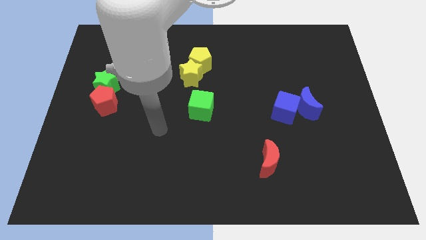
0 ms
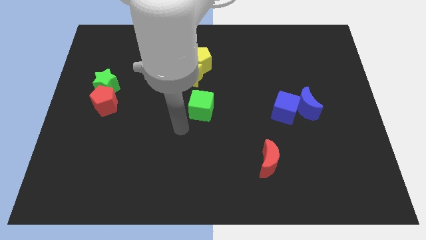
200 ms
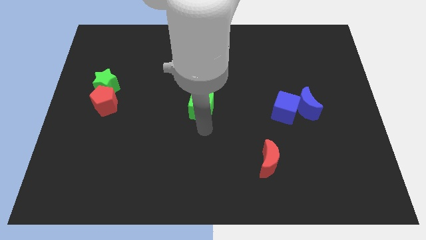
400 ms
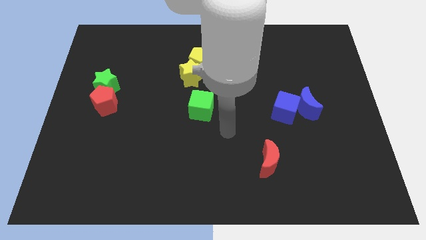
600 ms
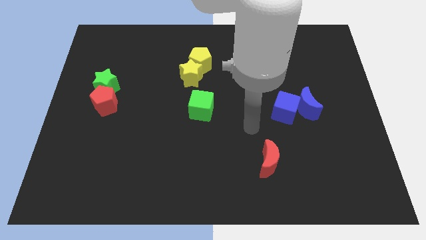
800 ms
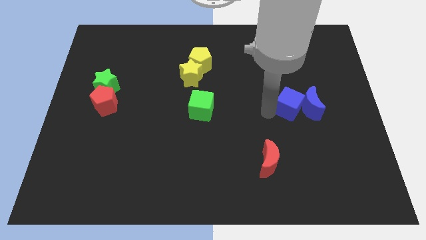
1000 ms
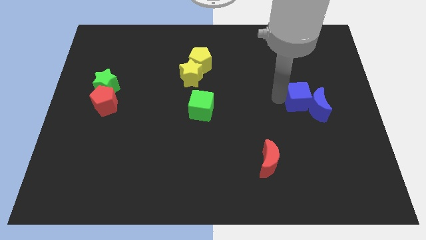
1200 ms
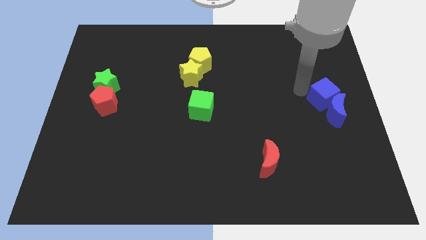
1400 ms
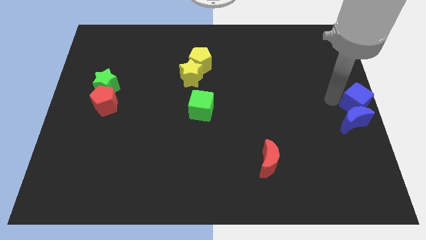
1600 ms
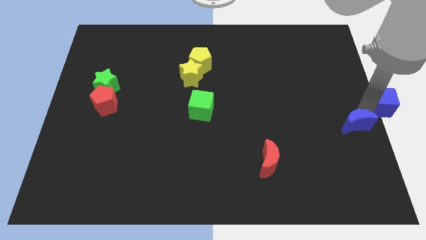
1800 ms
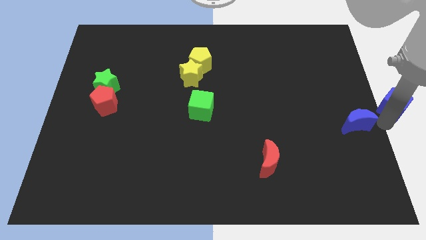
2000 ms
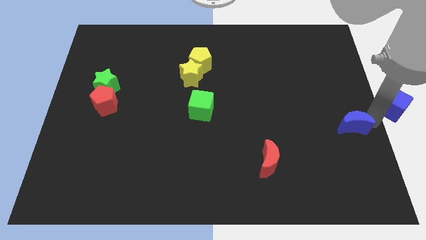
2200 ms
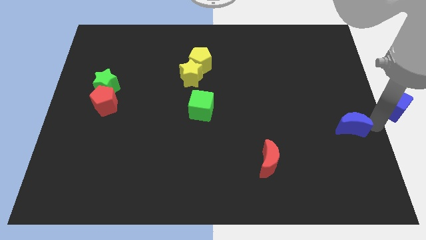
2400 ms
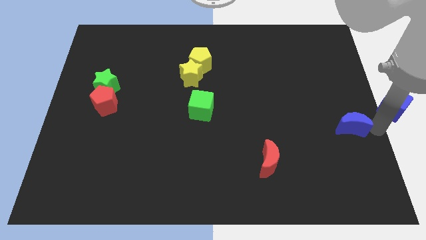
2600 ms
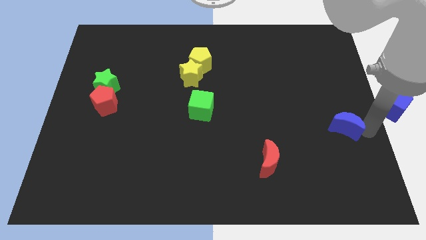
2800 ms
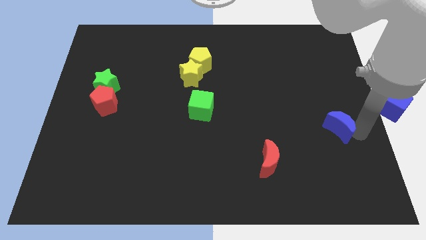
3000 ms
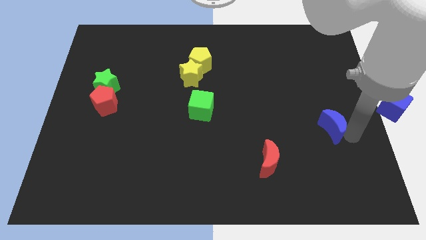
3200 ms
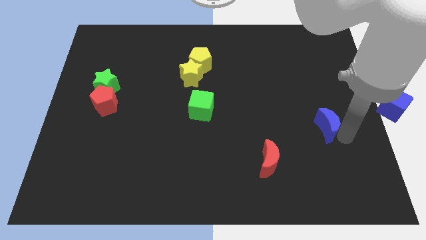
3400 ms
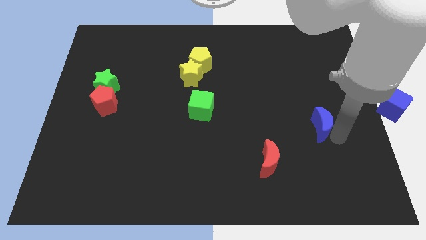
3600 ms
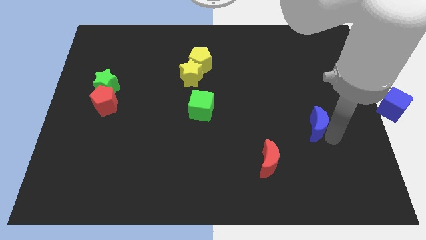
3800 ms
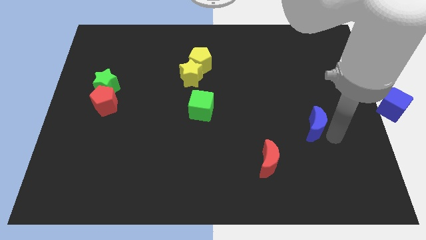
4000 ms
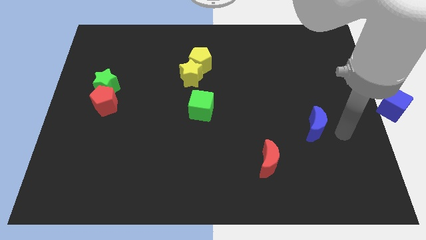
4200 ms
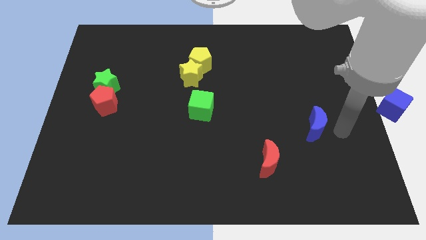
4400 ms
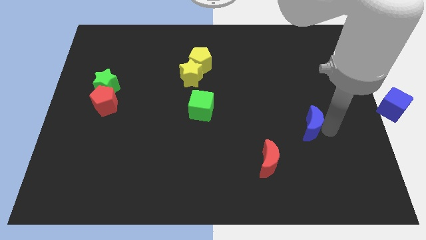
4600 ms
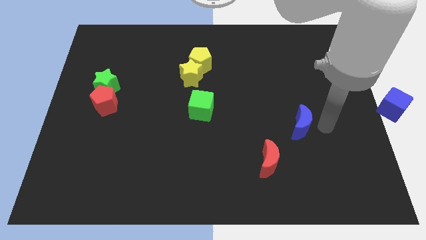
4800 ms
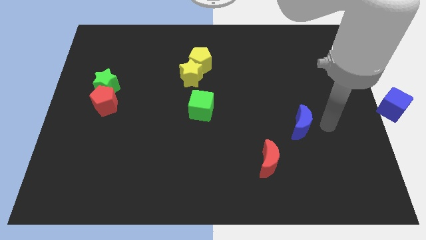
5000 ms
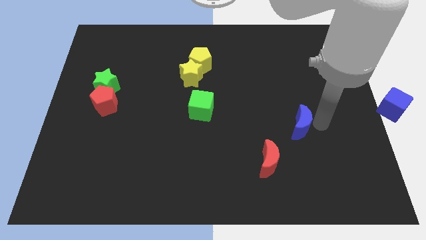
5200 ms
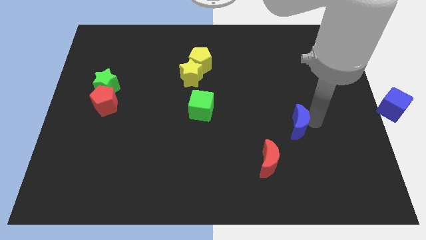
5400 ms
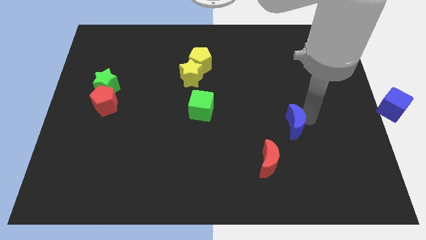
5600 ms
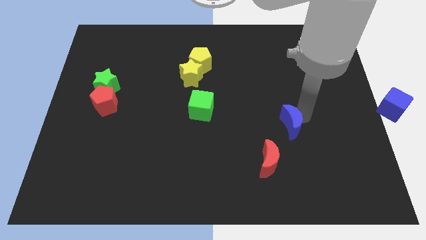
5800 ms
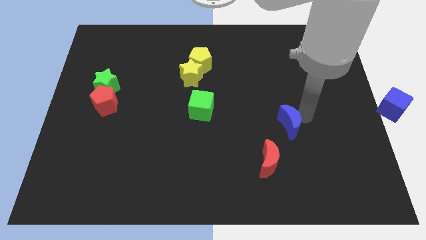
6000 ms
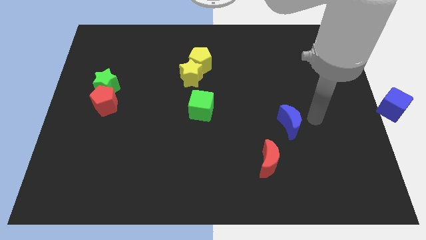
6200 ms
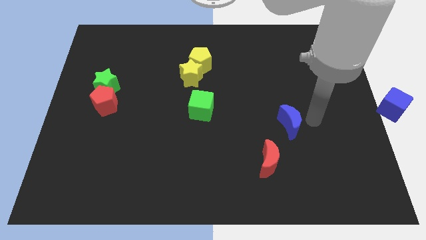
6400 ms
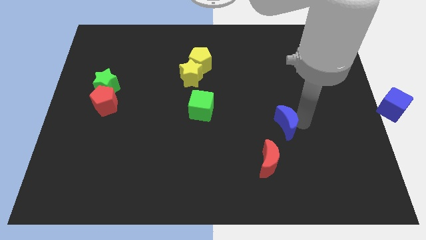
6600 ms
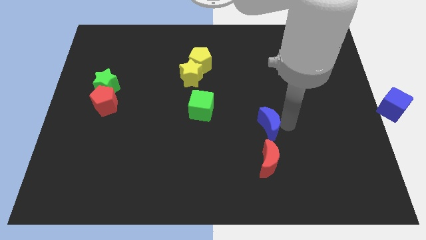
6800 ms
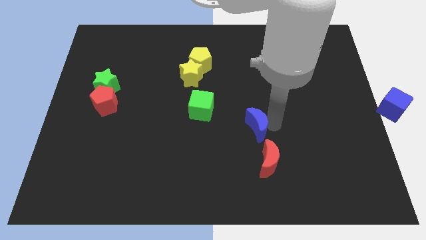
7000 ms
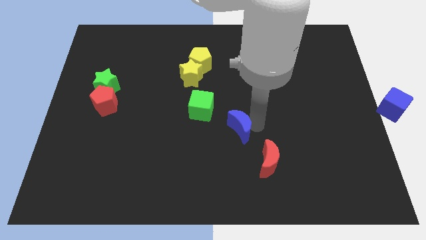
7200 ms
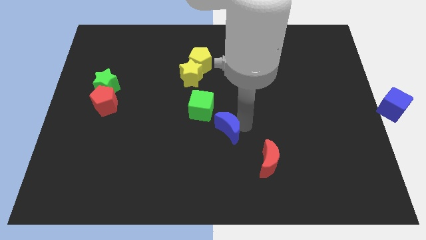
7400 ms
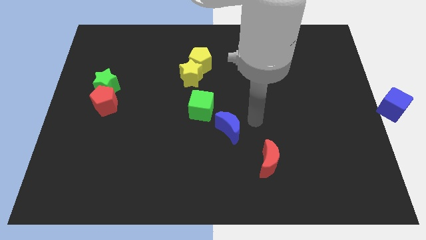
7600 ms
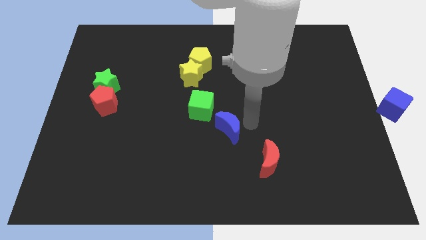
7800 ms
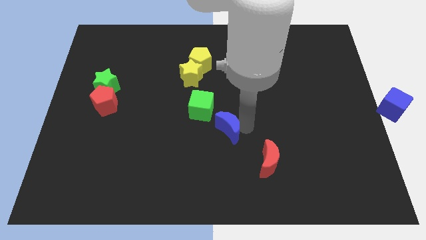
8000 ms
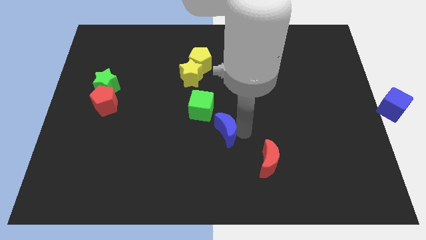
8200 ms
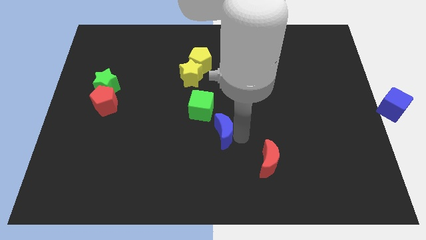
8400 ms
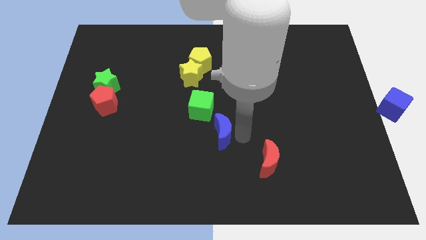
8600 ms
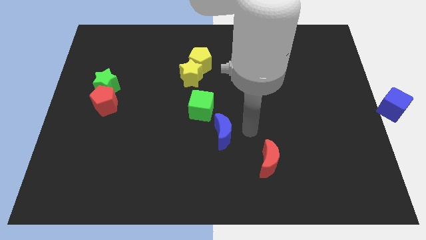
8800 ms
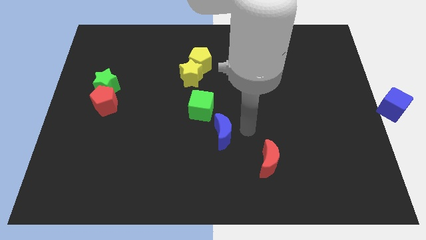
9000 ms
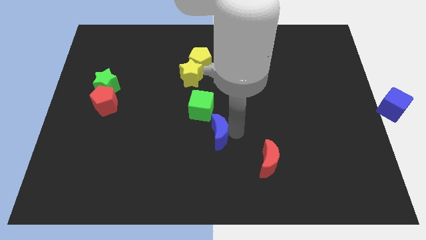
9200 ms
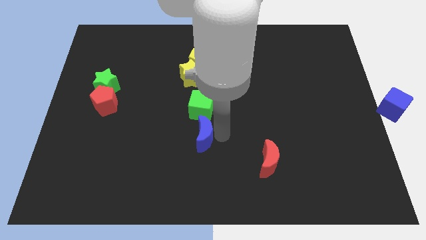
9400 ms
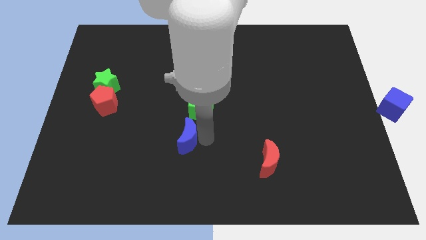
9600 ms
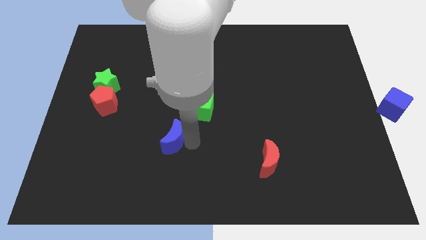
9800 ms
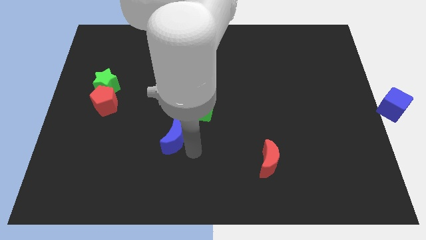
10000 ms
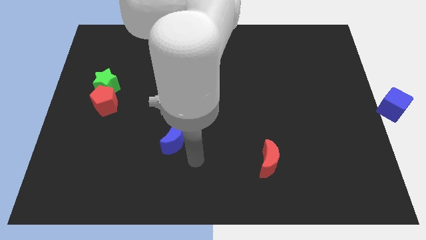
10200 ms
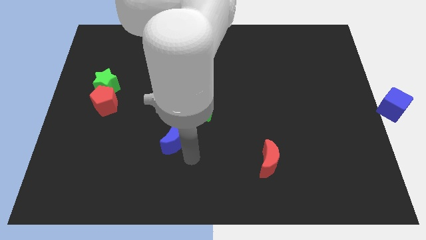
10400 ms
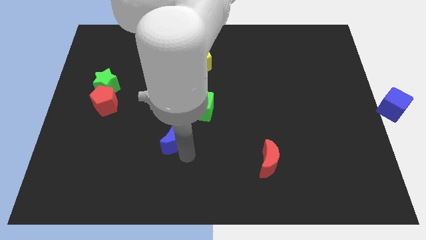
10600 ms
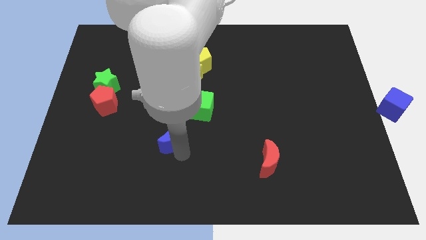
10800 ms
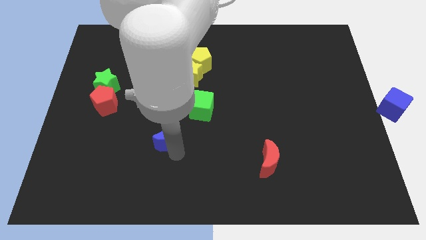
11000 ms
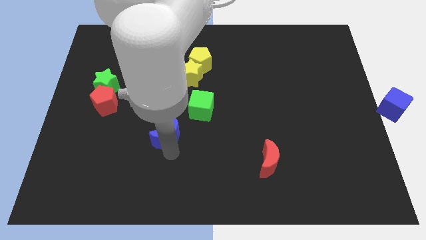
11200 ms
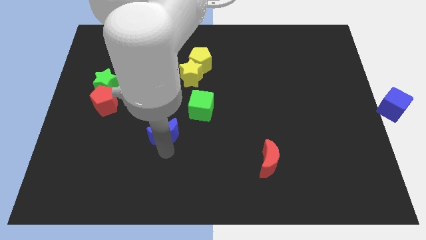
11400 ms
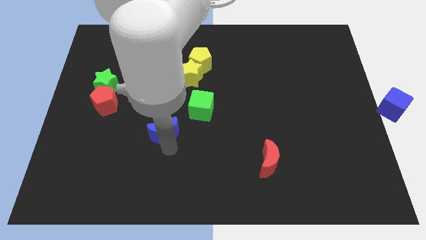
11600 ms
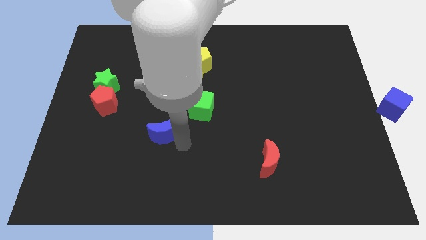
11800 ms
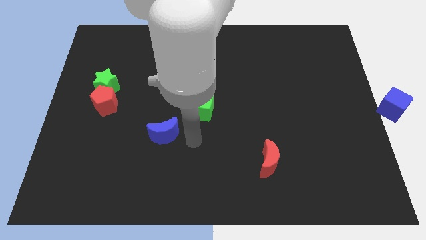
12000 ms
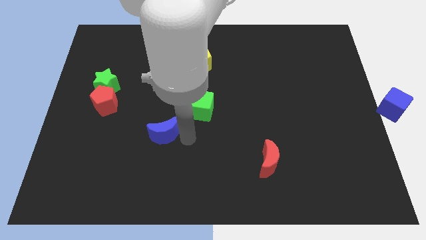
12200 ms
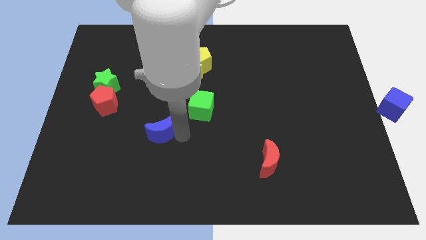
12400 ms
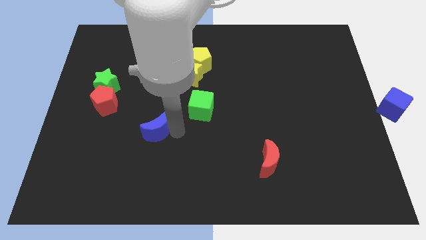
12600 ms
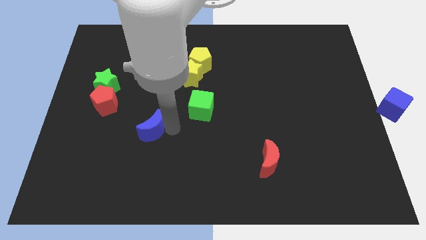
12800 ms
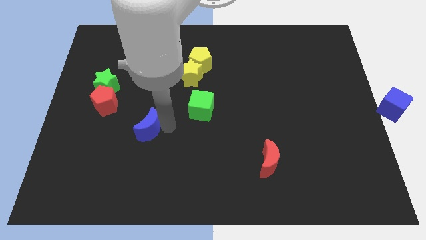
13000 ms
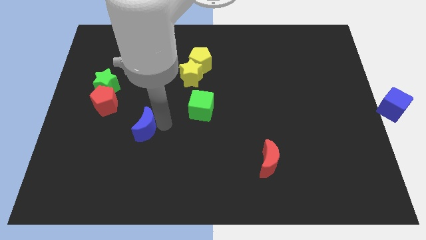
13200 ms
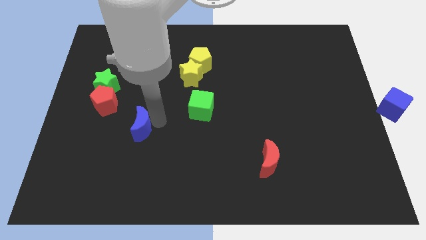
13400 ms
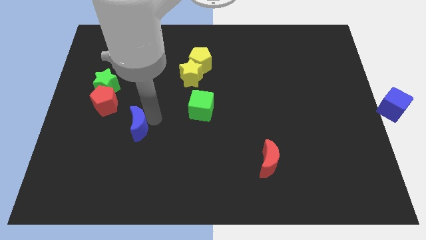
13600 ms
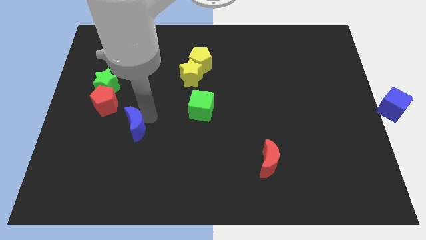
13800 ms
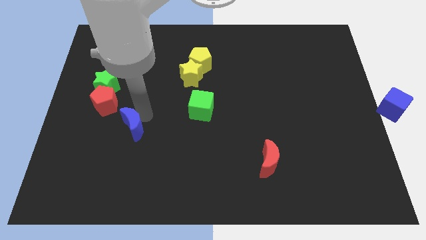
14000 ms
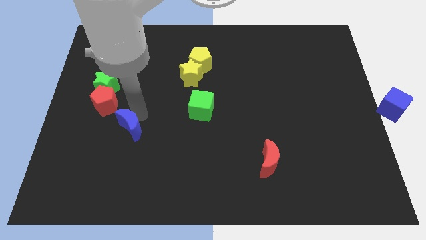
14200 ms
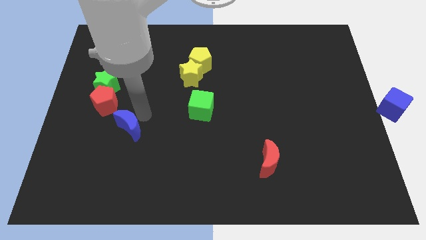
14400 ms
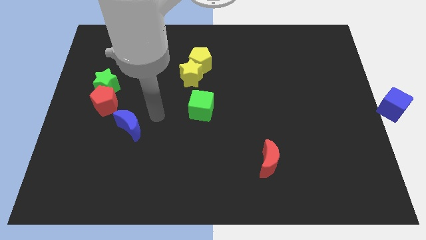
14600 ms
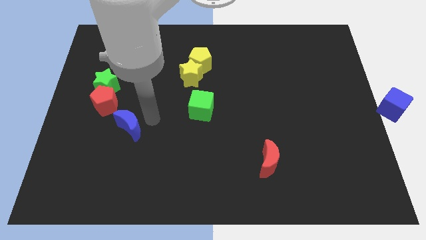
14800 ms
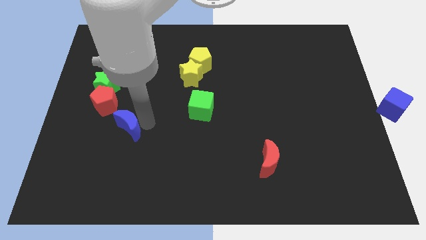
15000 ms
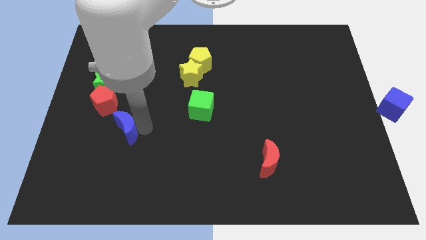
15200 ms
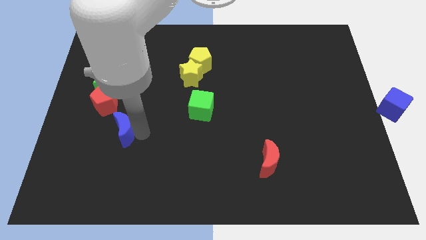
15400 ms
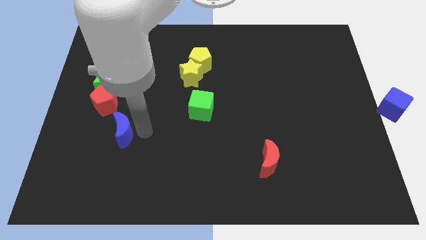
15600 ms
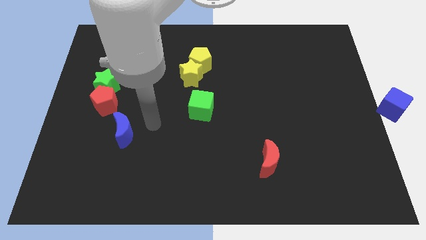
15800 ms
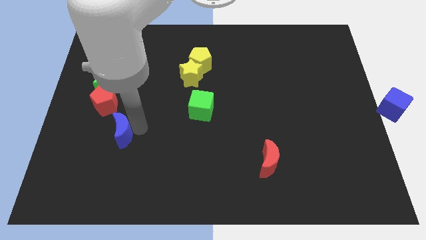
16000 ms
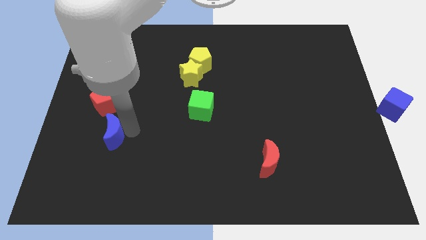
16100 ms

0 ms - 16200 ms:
move the blue moon to the bottom side of the red pentagon
